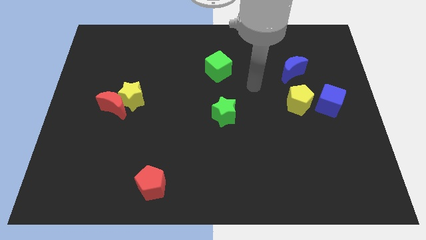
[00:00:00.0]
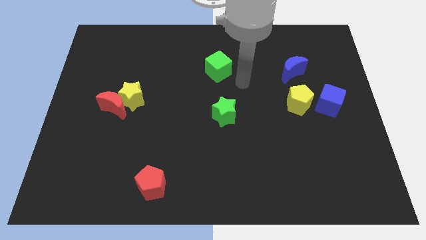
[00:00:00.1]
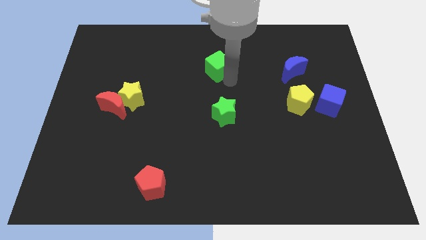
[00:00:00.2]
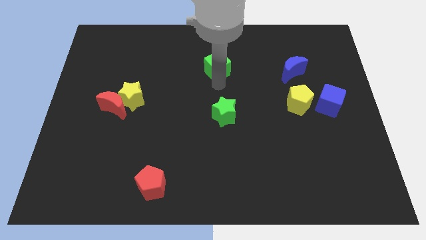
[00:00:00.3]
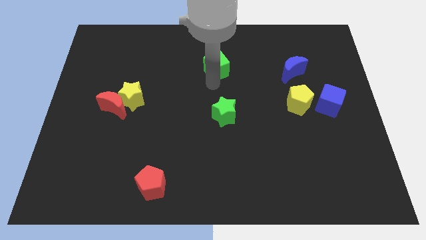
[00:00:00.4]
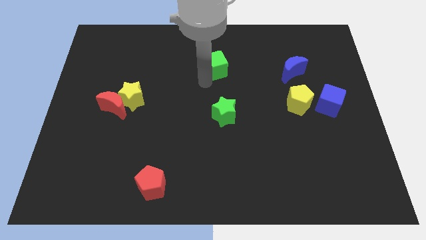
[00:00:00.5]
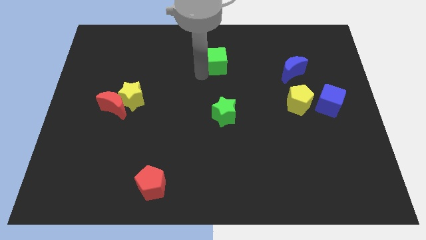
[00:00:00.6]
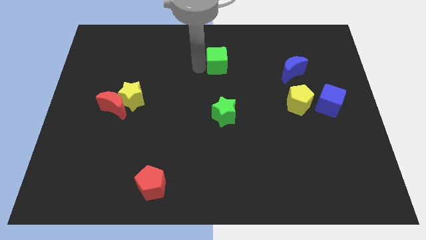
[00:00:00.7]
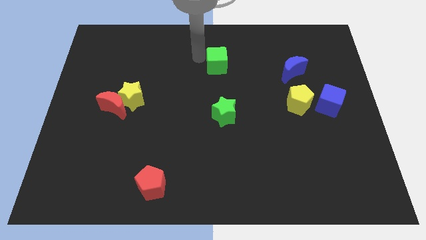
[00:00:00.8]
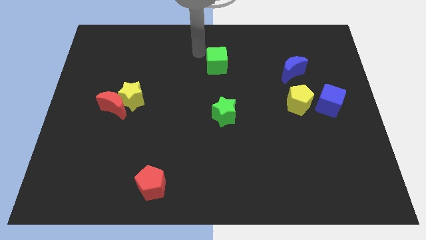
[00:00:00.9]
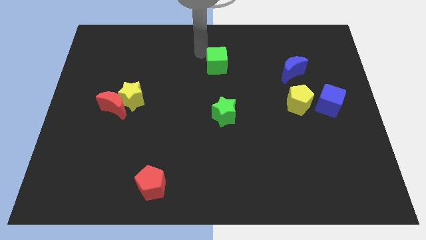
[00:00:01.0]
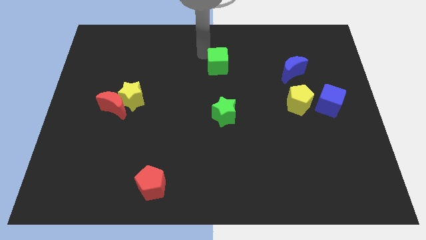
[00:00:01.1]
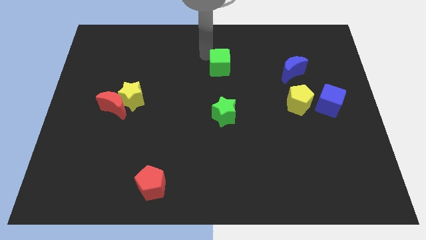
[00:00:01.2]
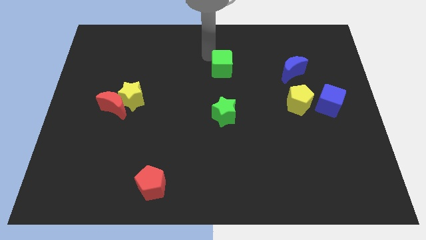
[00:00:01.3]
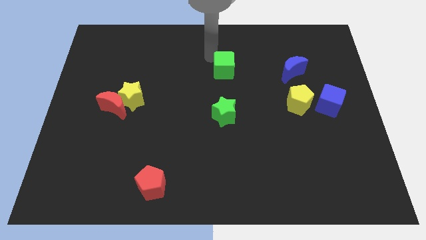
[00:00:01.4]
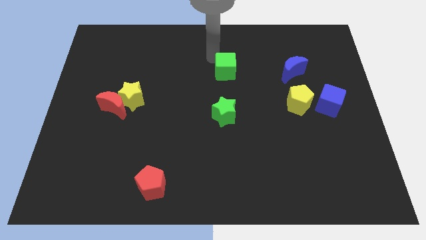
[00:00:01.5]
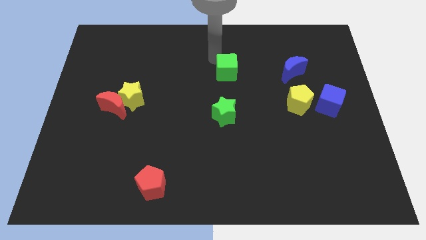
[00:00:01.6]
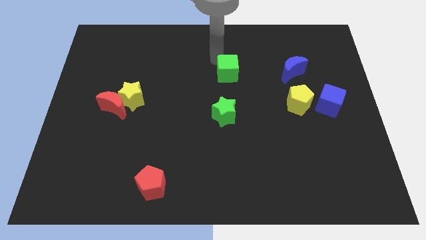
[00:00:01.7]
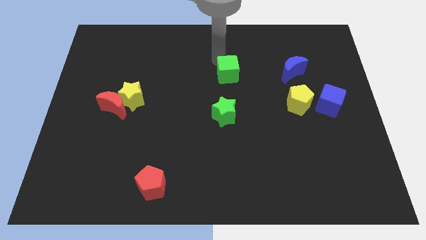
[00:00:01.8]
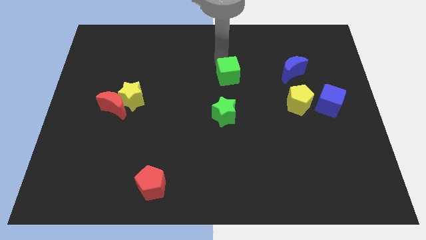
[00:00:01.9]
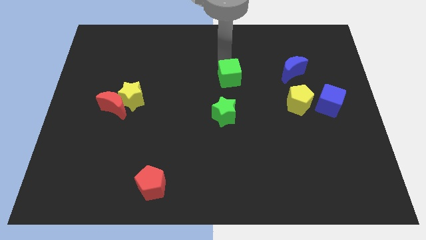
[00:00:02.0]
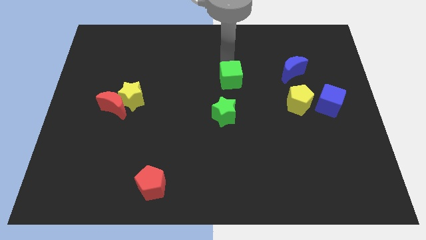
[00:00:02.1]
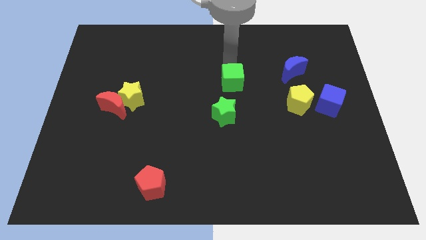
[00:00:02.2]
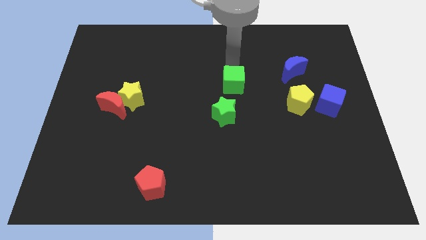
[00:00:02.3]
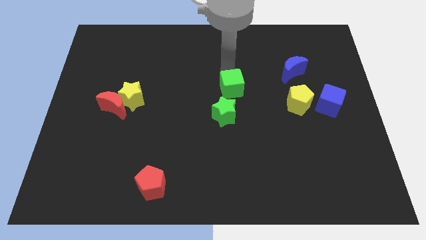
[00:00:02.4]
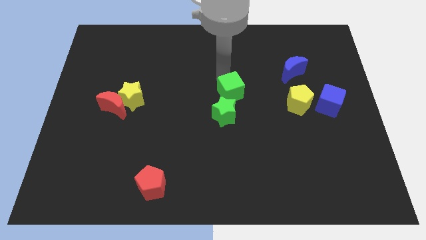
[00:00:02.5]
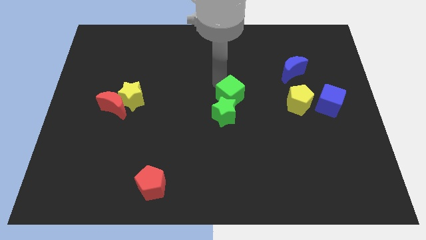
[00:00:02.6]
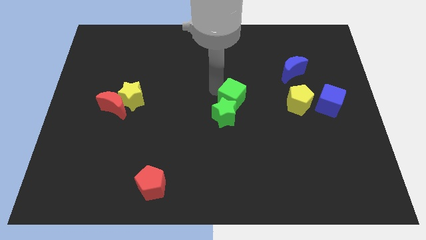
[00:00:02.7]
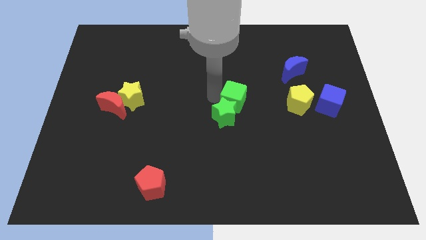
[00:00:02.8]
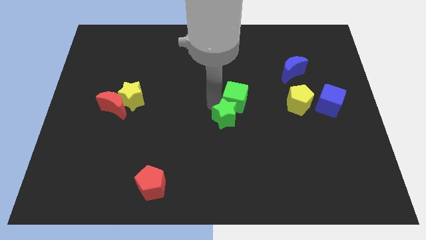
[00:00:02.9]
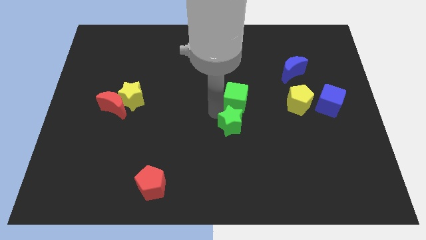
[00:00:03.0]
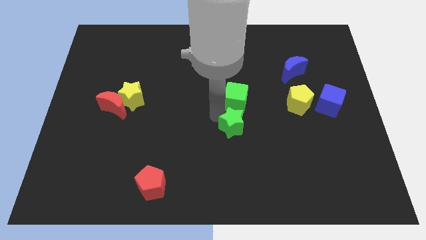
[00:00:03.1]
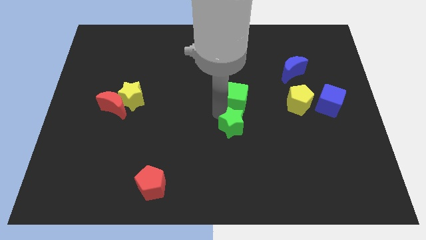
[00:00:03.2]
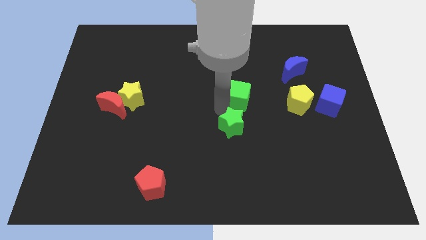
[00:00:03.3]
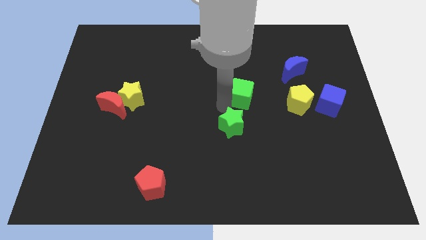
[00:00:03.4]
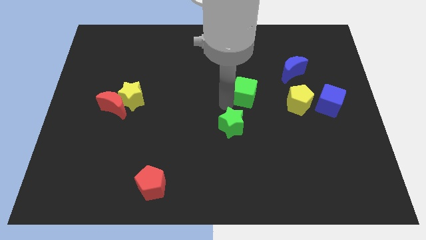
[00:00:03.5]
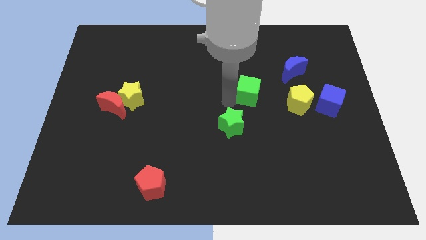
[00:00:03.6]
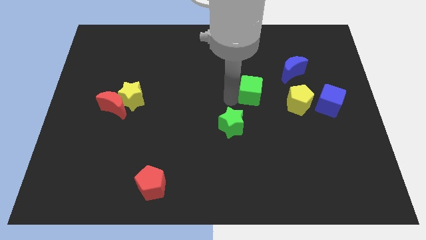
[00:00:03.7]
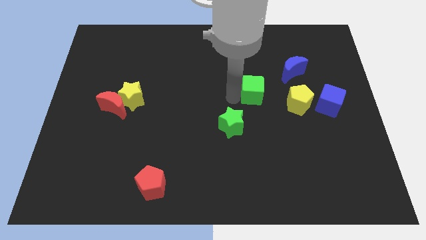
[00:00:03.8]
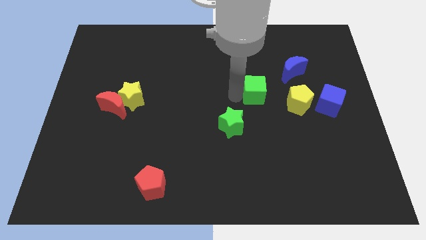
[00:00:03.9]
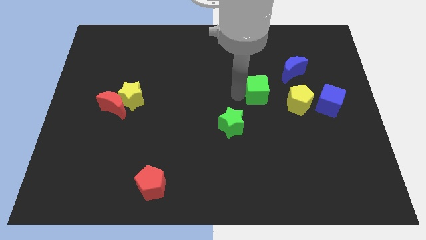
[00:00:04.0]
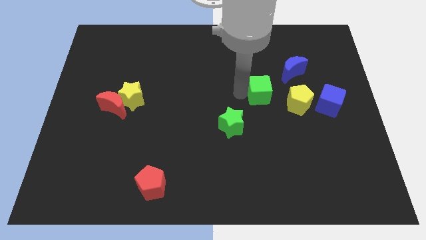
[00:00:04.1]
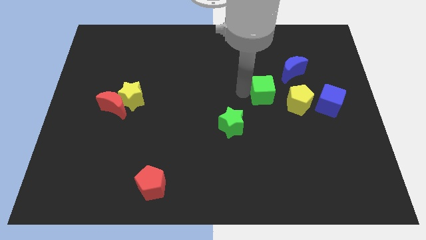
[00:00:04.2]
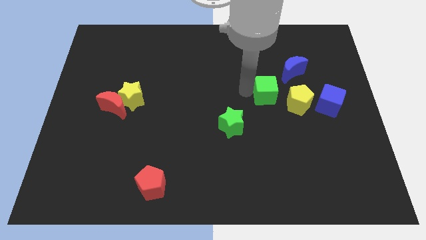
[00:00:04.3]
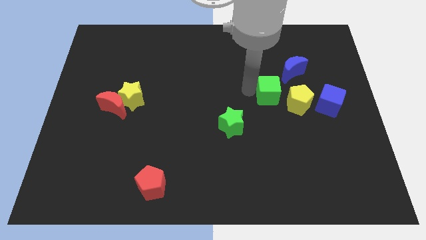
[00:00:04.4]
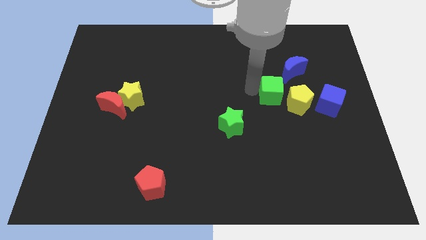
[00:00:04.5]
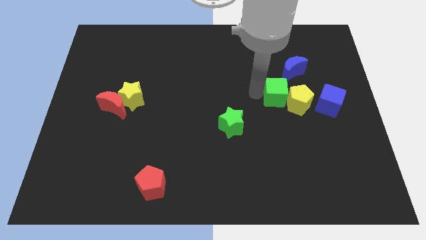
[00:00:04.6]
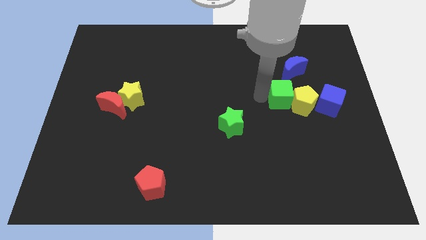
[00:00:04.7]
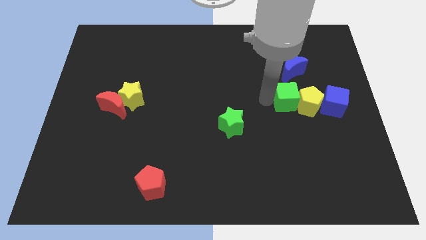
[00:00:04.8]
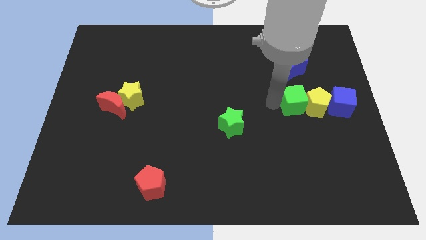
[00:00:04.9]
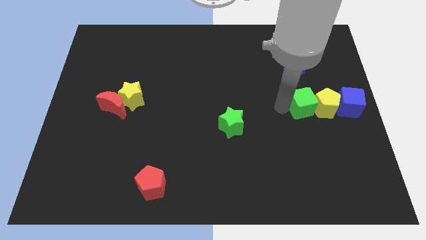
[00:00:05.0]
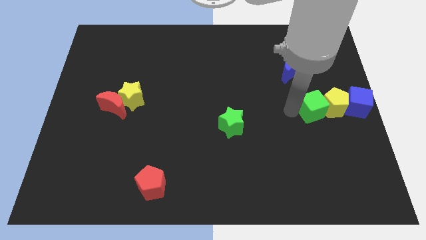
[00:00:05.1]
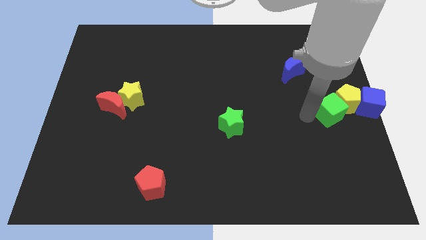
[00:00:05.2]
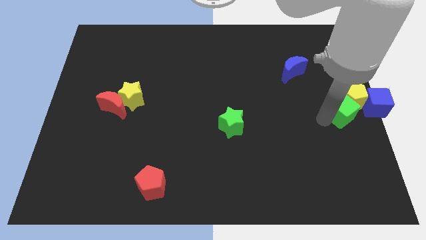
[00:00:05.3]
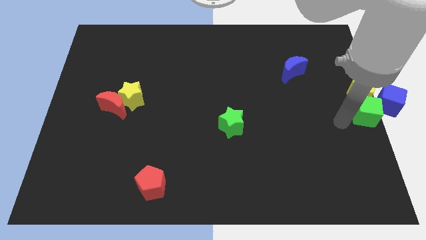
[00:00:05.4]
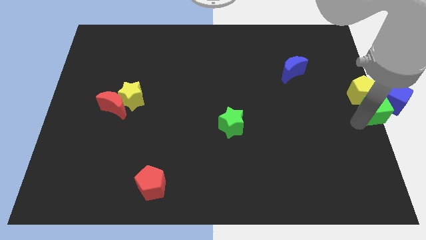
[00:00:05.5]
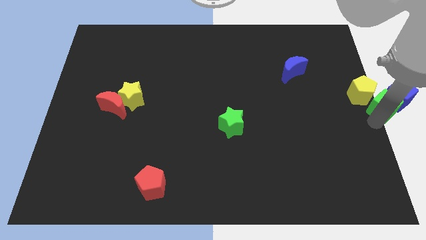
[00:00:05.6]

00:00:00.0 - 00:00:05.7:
put the green cube next to the blue cube

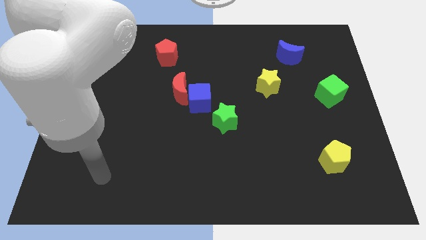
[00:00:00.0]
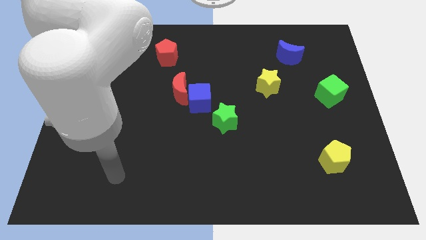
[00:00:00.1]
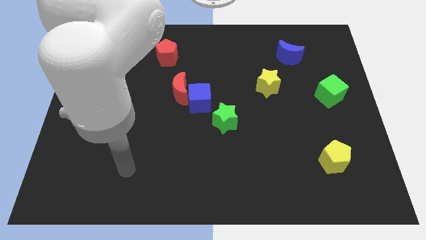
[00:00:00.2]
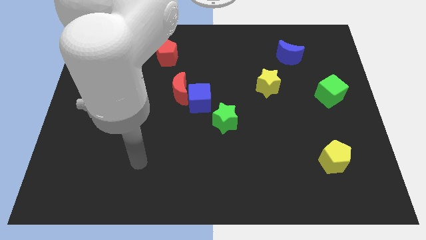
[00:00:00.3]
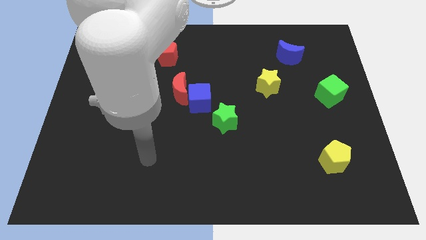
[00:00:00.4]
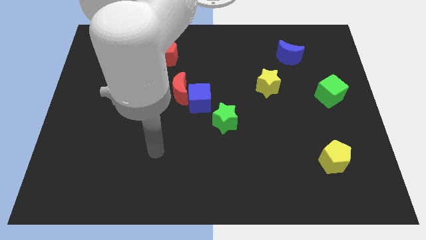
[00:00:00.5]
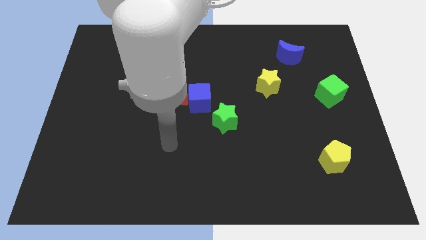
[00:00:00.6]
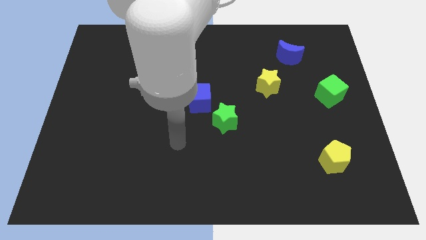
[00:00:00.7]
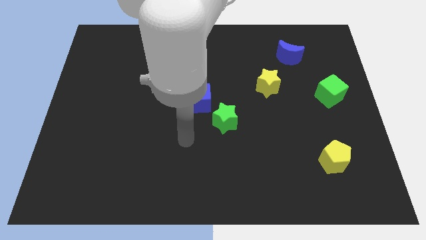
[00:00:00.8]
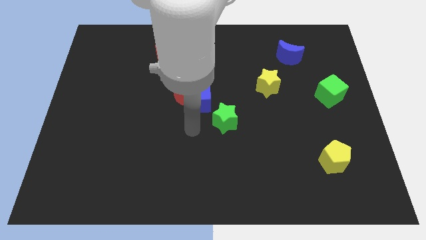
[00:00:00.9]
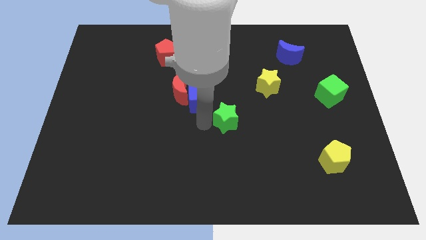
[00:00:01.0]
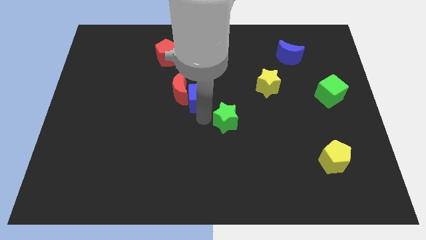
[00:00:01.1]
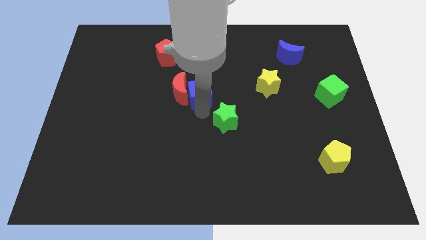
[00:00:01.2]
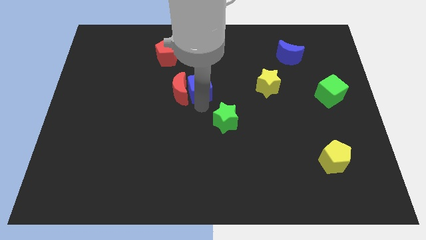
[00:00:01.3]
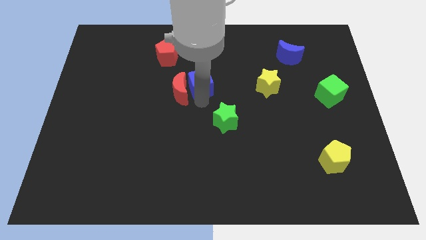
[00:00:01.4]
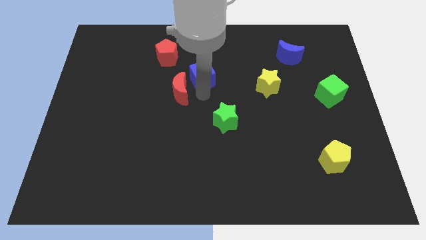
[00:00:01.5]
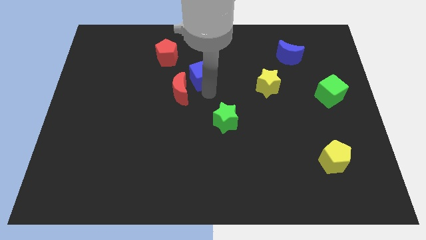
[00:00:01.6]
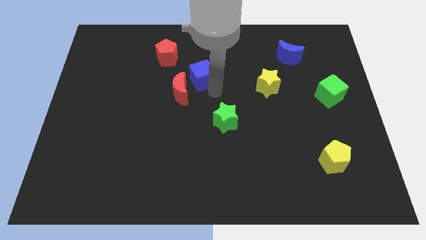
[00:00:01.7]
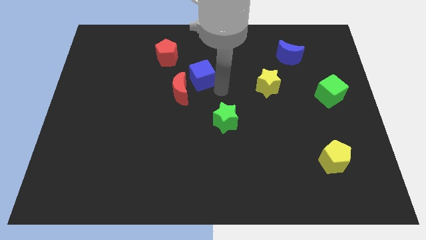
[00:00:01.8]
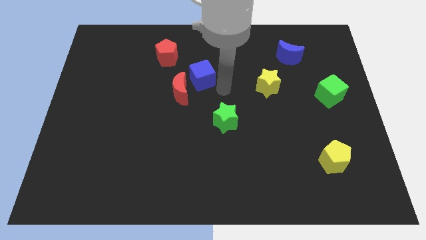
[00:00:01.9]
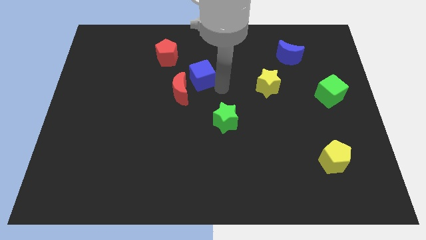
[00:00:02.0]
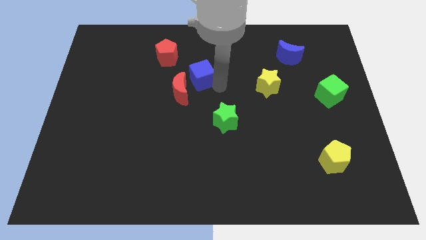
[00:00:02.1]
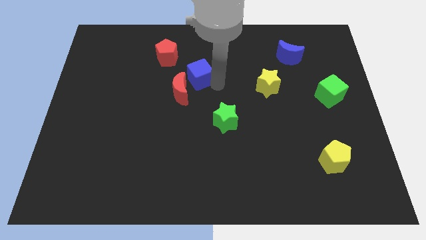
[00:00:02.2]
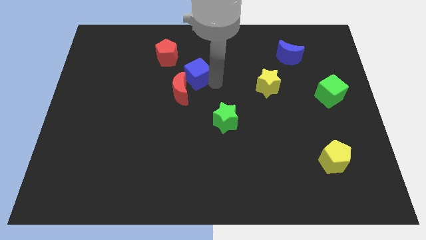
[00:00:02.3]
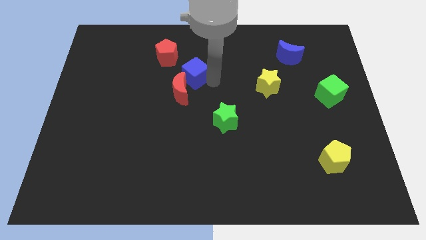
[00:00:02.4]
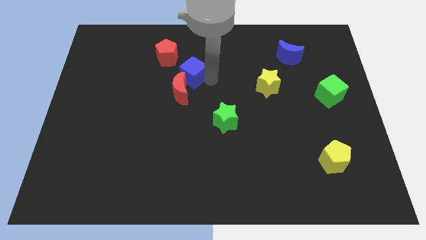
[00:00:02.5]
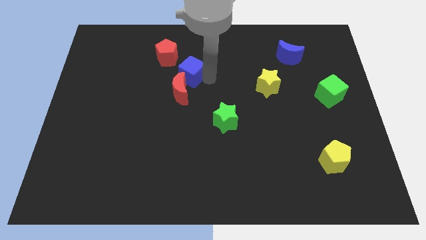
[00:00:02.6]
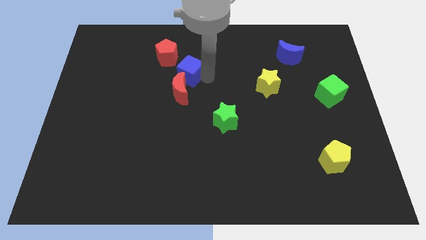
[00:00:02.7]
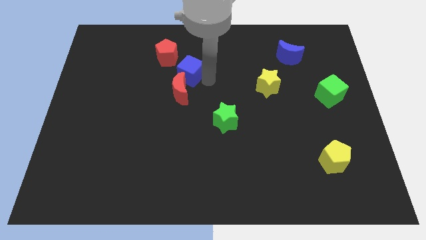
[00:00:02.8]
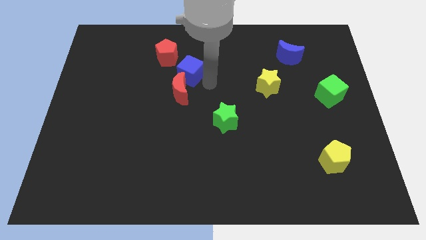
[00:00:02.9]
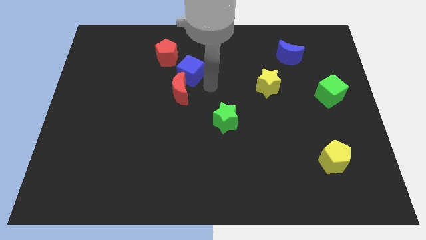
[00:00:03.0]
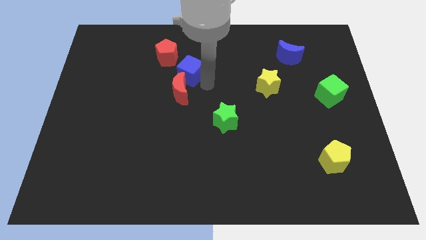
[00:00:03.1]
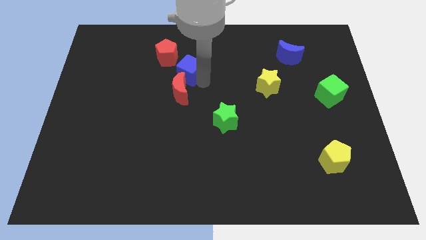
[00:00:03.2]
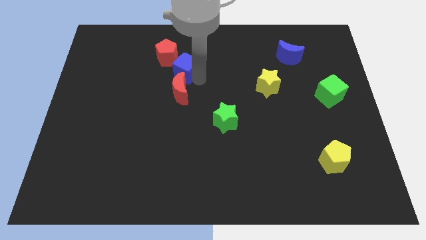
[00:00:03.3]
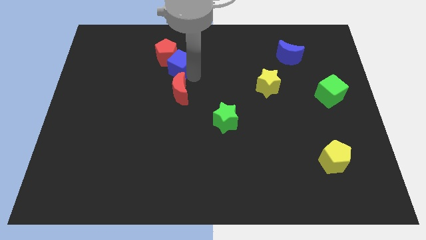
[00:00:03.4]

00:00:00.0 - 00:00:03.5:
slide the blue cube to the red pentagon
